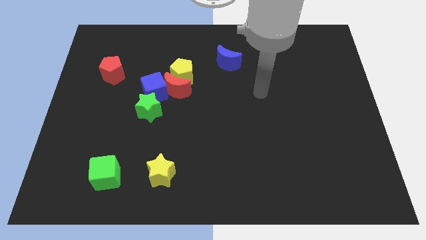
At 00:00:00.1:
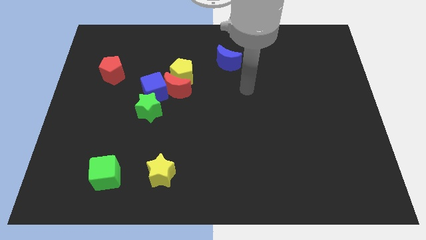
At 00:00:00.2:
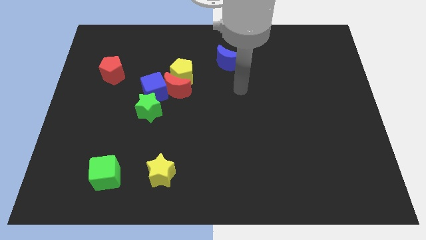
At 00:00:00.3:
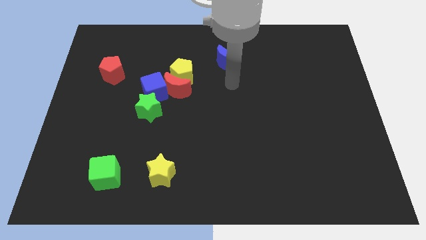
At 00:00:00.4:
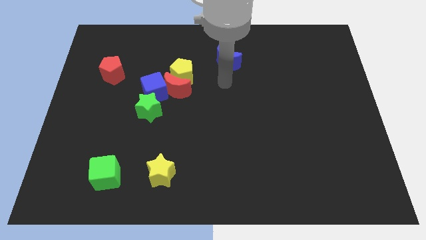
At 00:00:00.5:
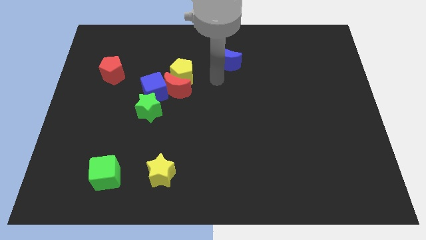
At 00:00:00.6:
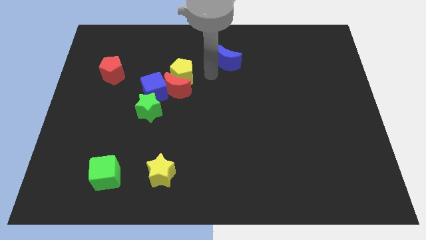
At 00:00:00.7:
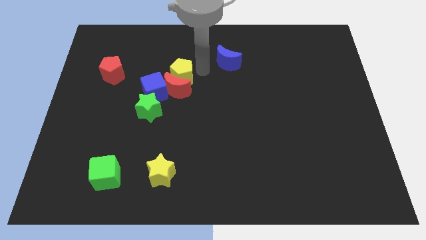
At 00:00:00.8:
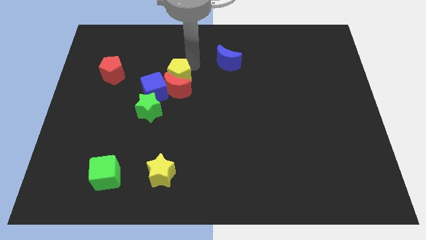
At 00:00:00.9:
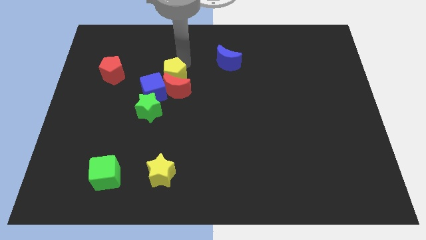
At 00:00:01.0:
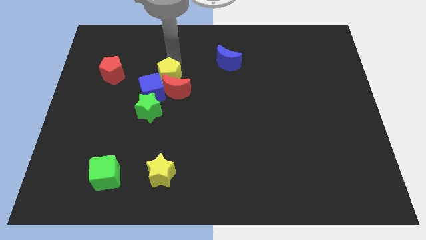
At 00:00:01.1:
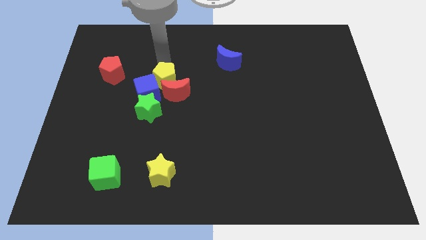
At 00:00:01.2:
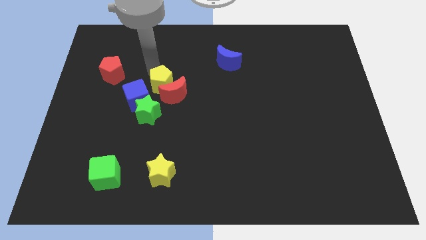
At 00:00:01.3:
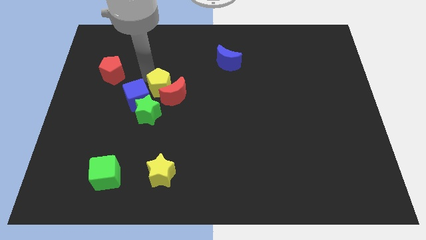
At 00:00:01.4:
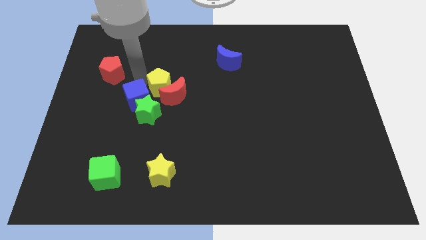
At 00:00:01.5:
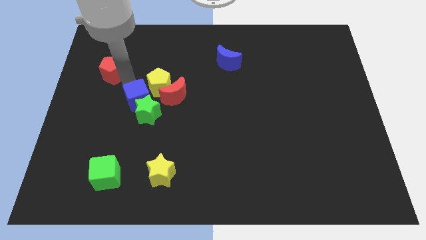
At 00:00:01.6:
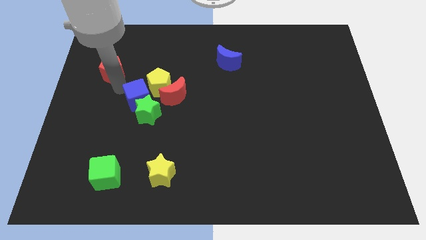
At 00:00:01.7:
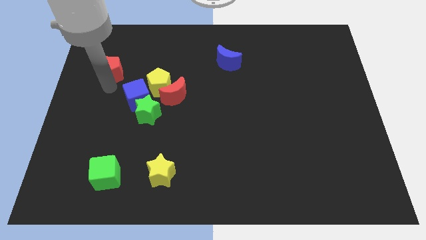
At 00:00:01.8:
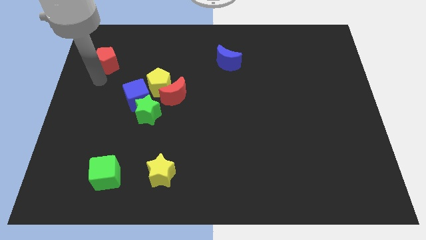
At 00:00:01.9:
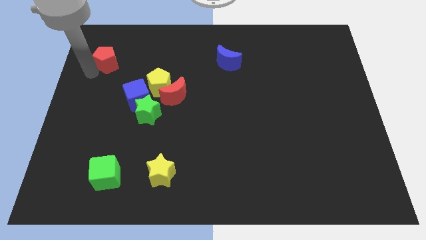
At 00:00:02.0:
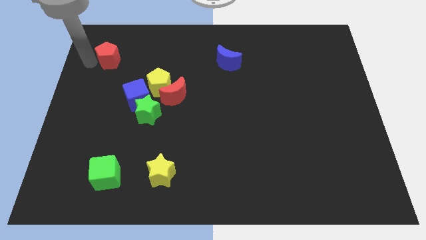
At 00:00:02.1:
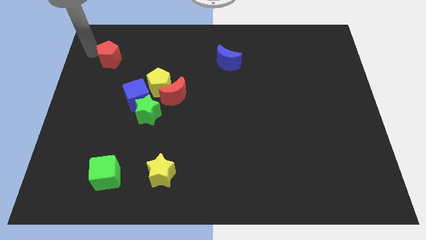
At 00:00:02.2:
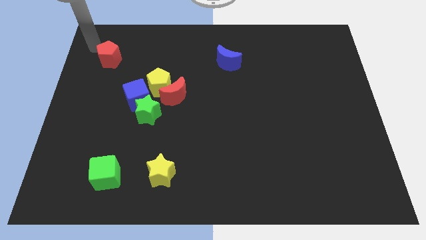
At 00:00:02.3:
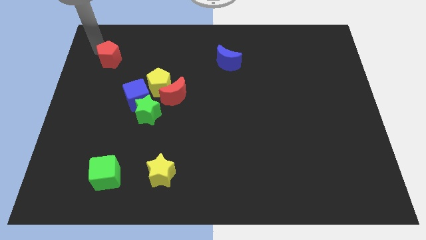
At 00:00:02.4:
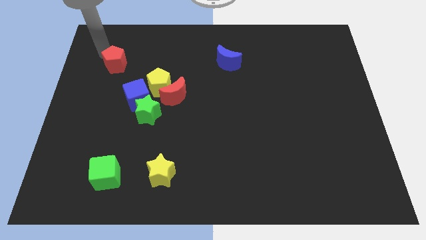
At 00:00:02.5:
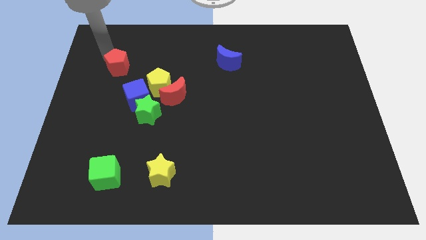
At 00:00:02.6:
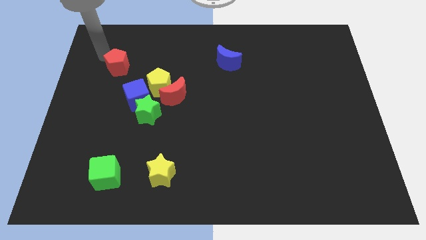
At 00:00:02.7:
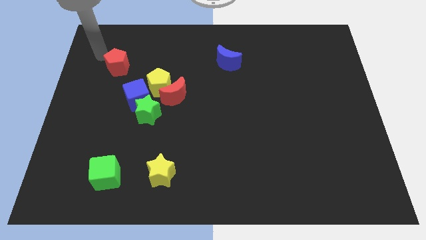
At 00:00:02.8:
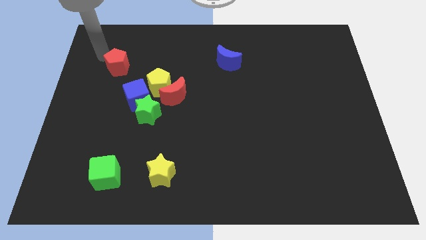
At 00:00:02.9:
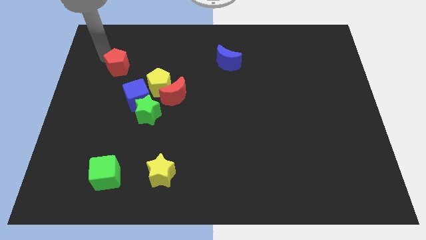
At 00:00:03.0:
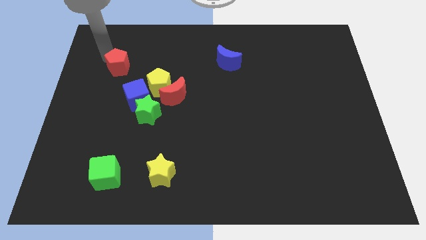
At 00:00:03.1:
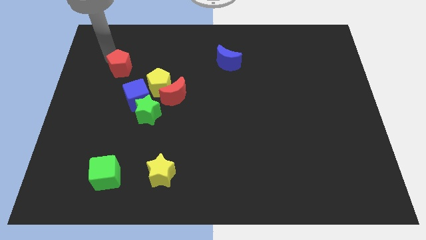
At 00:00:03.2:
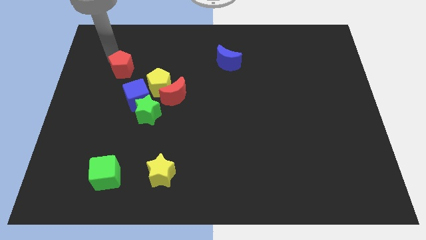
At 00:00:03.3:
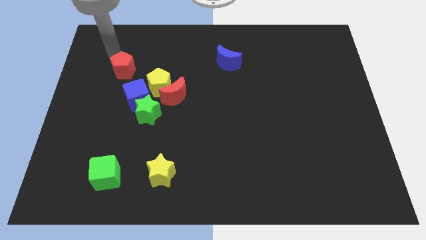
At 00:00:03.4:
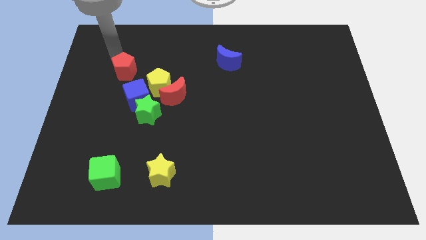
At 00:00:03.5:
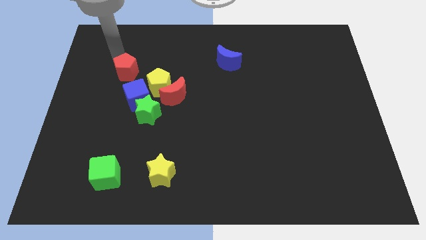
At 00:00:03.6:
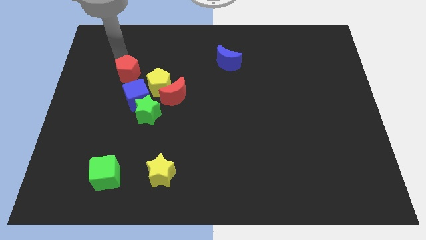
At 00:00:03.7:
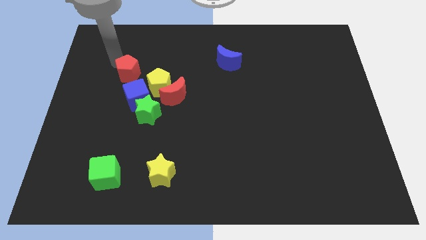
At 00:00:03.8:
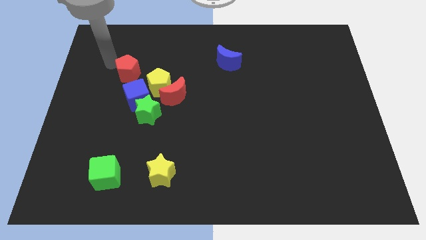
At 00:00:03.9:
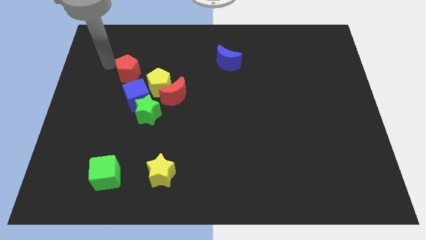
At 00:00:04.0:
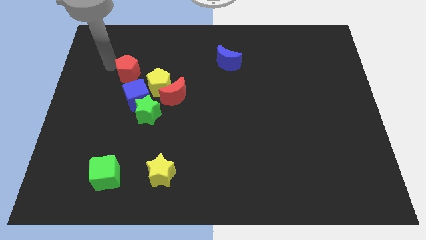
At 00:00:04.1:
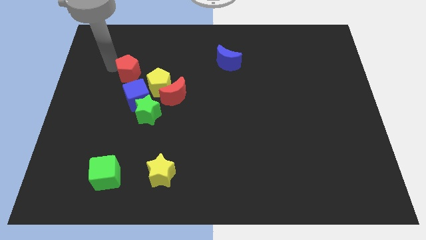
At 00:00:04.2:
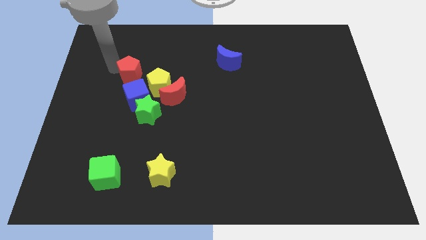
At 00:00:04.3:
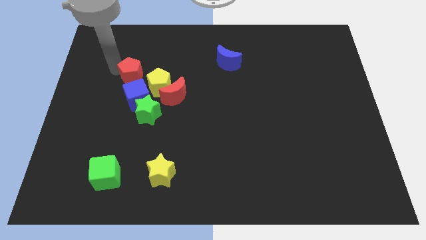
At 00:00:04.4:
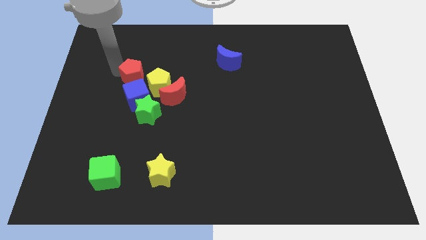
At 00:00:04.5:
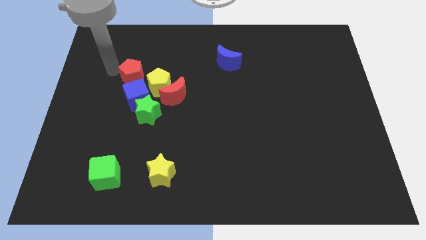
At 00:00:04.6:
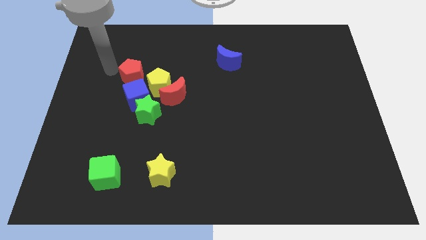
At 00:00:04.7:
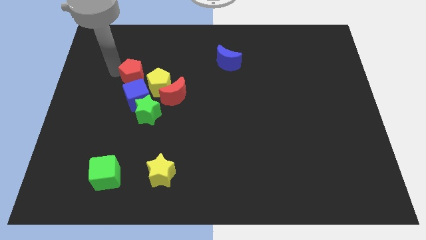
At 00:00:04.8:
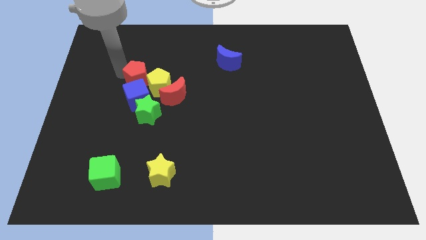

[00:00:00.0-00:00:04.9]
push the red pentagon to the top side of the green star

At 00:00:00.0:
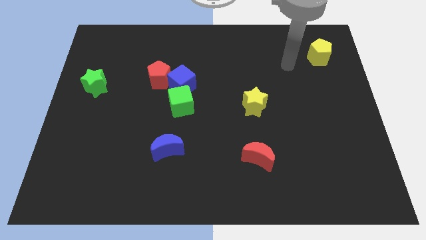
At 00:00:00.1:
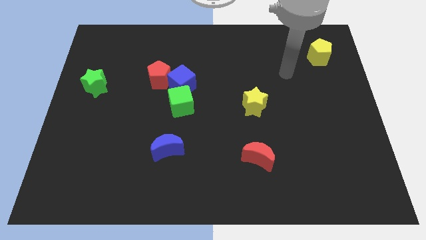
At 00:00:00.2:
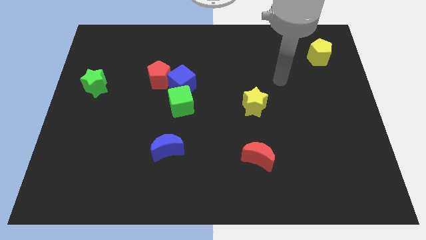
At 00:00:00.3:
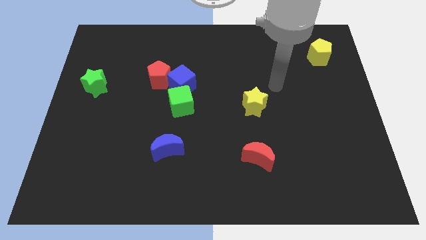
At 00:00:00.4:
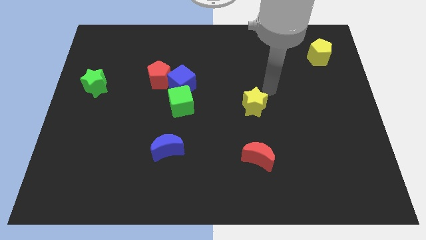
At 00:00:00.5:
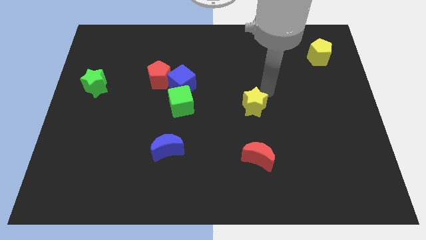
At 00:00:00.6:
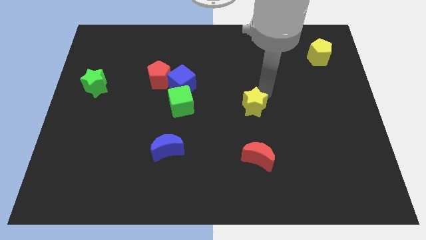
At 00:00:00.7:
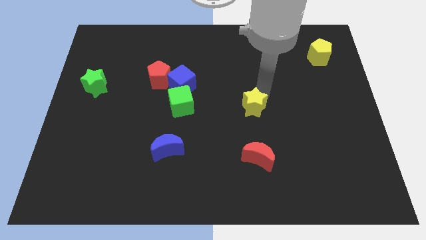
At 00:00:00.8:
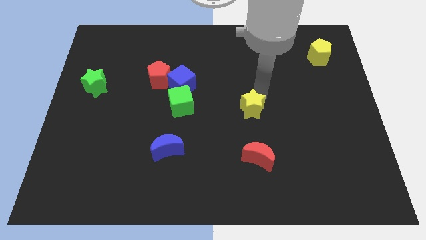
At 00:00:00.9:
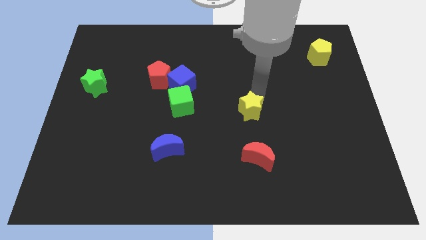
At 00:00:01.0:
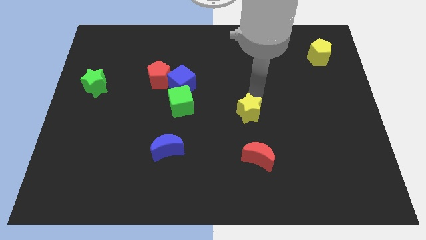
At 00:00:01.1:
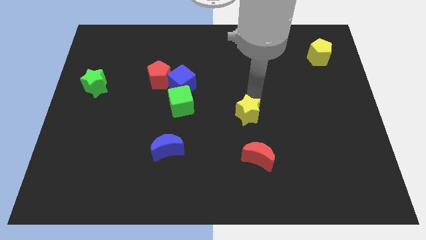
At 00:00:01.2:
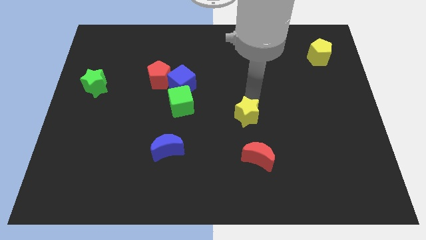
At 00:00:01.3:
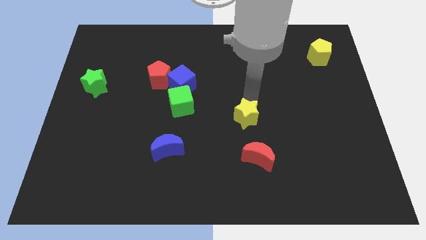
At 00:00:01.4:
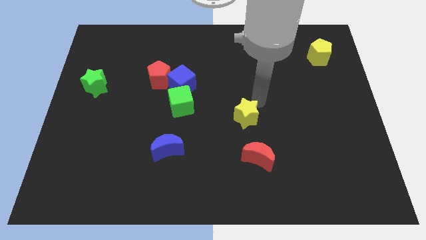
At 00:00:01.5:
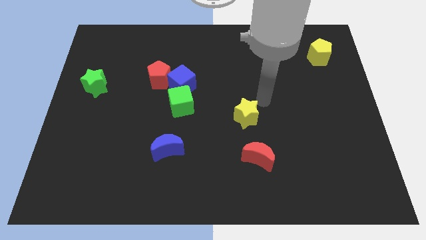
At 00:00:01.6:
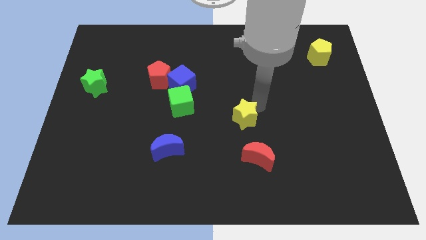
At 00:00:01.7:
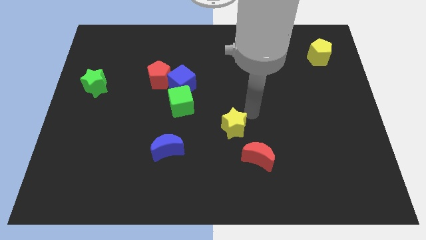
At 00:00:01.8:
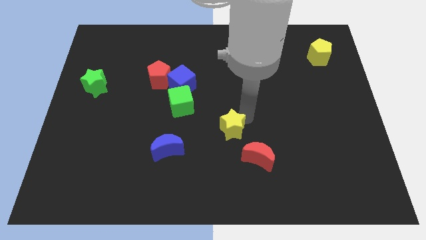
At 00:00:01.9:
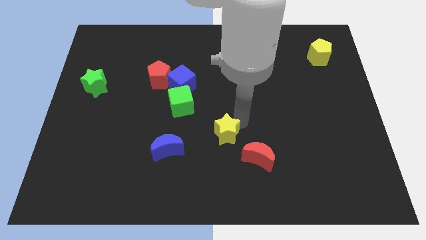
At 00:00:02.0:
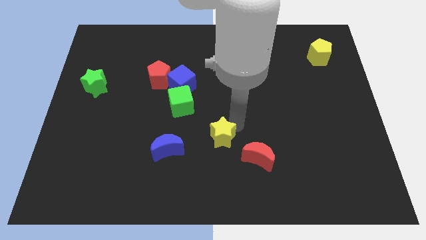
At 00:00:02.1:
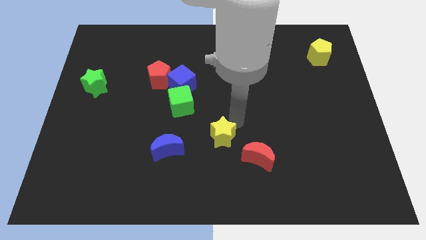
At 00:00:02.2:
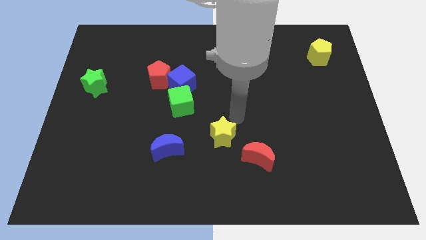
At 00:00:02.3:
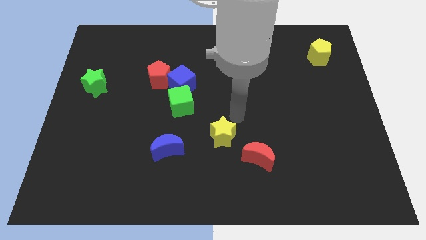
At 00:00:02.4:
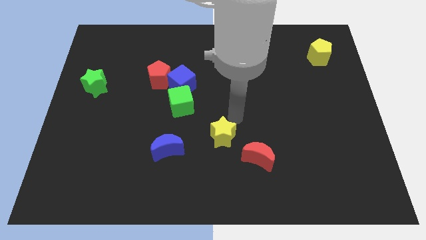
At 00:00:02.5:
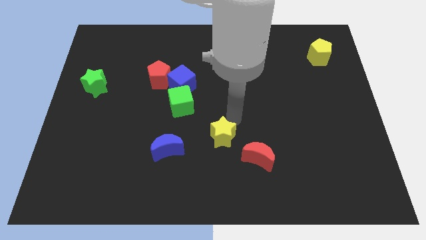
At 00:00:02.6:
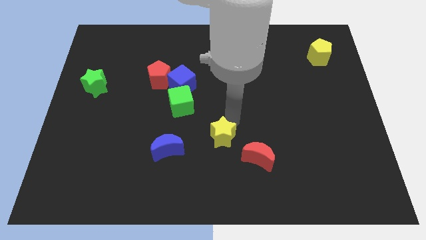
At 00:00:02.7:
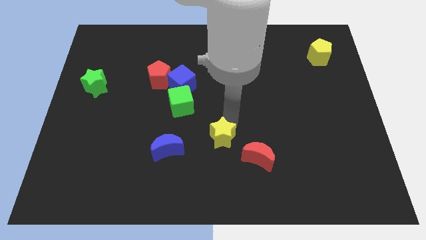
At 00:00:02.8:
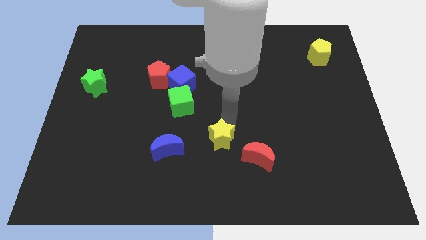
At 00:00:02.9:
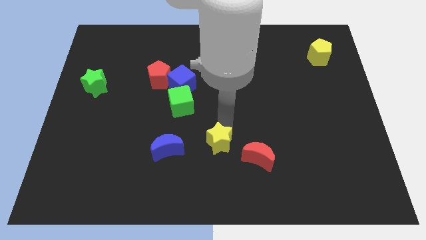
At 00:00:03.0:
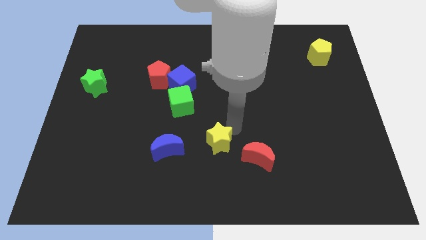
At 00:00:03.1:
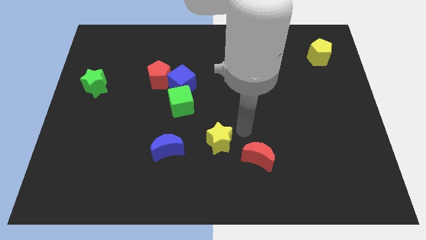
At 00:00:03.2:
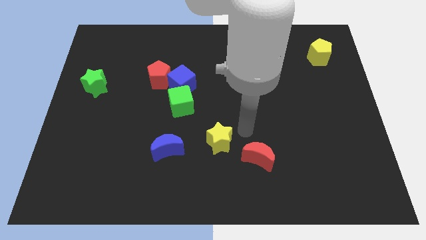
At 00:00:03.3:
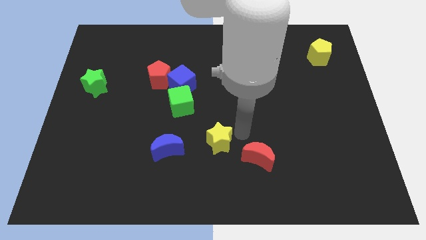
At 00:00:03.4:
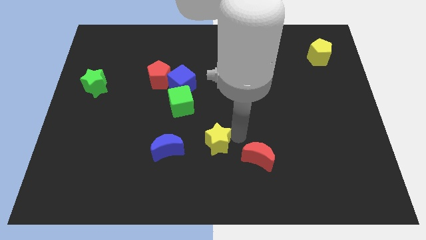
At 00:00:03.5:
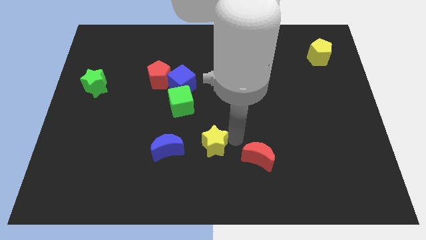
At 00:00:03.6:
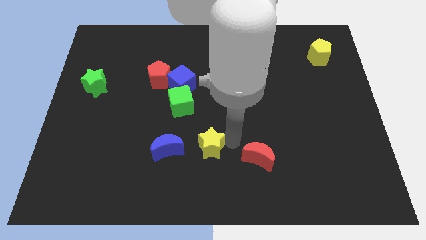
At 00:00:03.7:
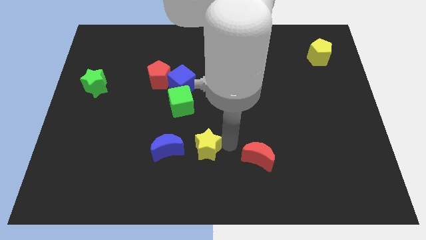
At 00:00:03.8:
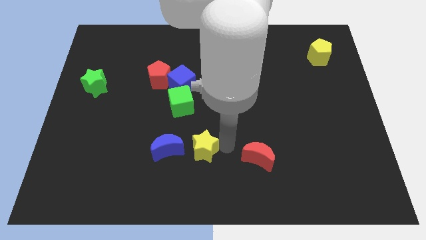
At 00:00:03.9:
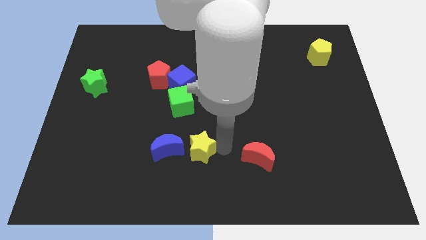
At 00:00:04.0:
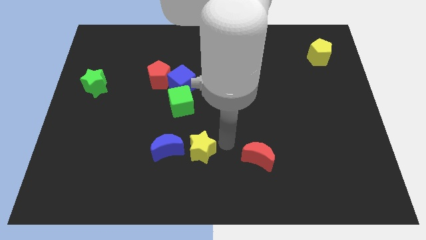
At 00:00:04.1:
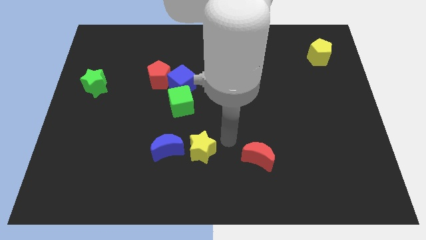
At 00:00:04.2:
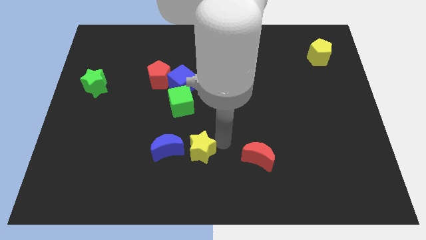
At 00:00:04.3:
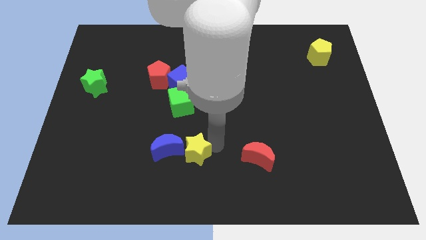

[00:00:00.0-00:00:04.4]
push the yellow star to the bottom of the green cube
